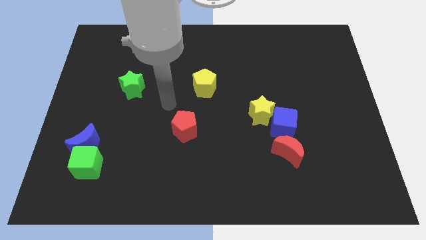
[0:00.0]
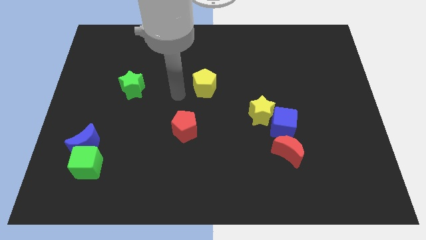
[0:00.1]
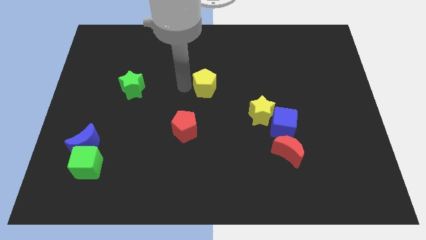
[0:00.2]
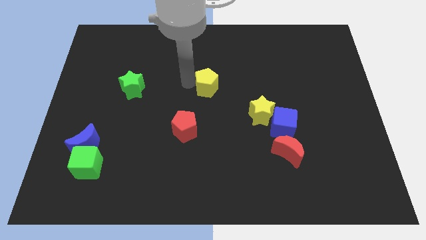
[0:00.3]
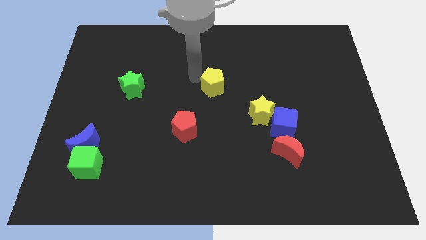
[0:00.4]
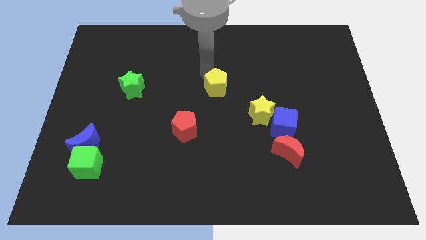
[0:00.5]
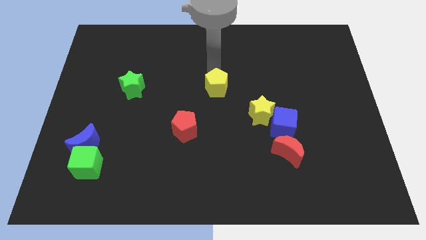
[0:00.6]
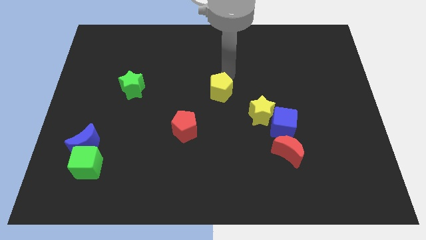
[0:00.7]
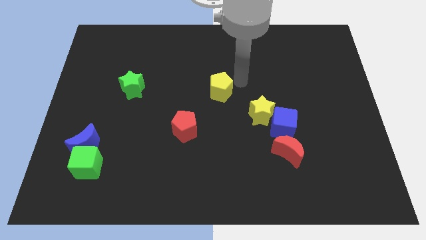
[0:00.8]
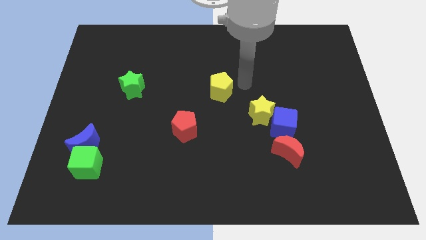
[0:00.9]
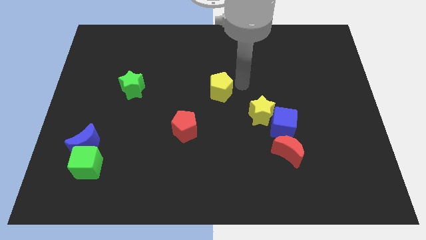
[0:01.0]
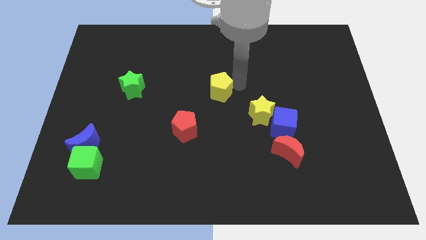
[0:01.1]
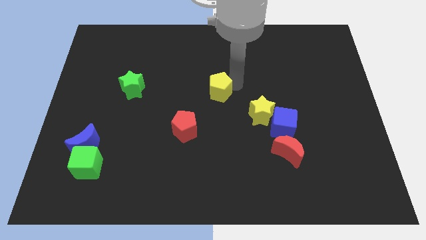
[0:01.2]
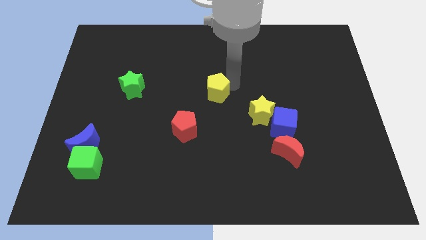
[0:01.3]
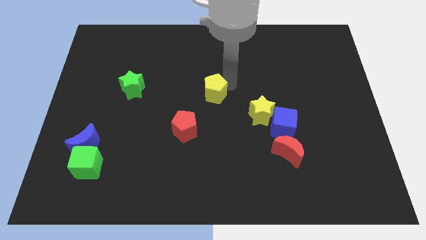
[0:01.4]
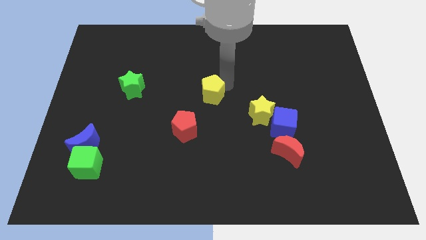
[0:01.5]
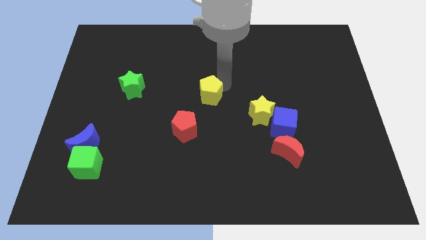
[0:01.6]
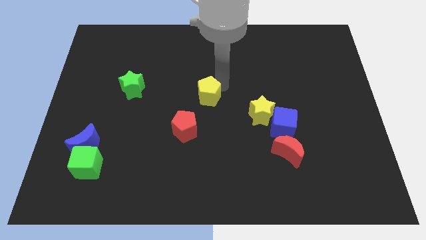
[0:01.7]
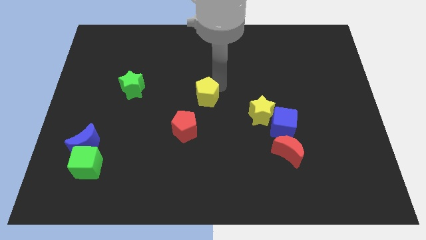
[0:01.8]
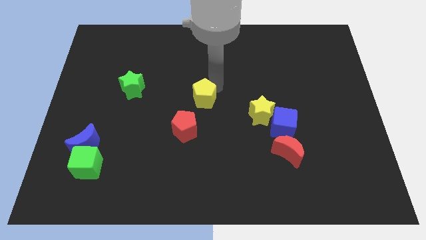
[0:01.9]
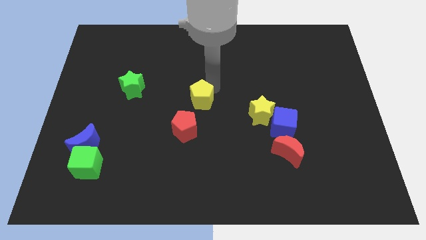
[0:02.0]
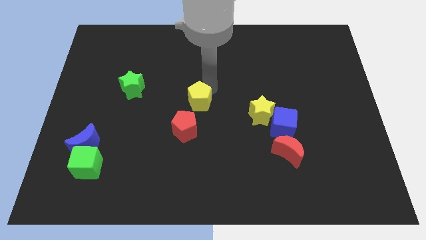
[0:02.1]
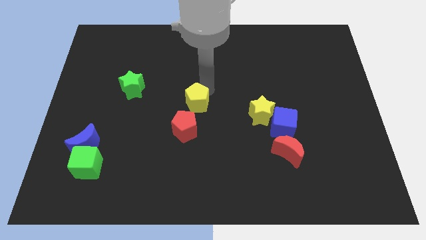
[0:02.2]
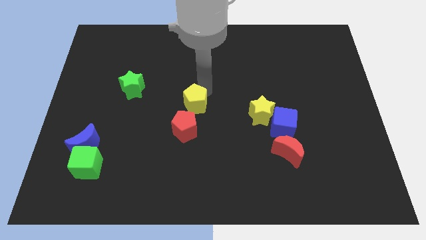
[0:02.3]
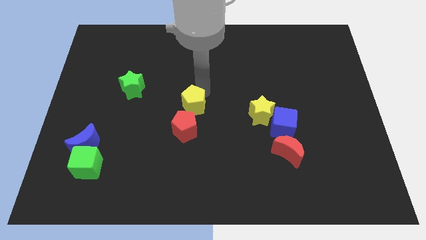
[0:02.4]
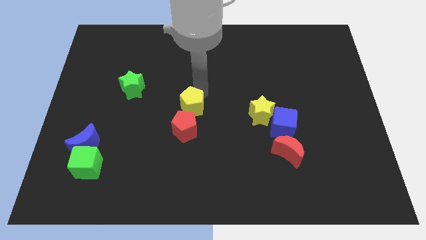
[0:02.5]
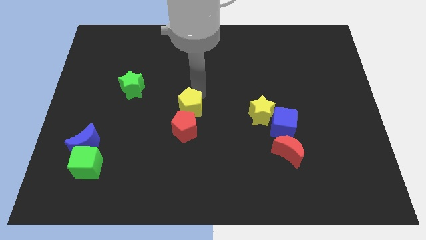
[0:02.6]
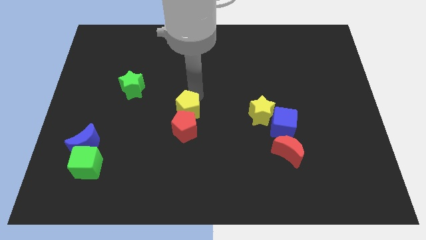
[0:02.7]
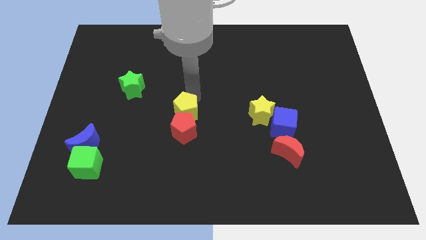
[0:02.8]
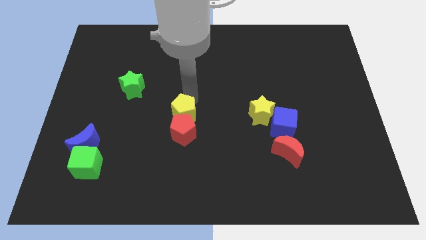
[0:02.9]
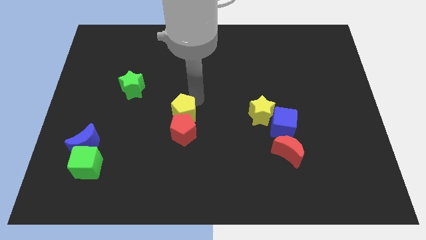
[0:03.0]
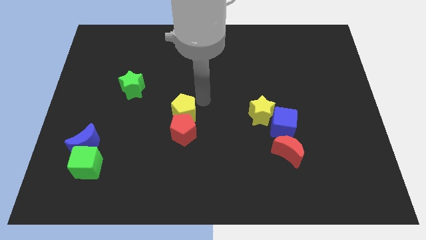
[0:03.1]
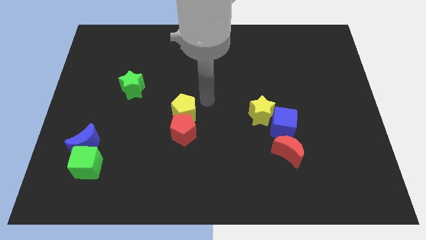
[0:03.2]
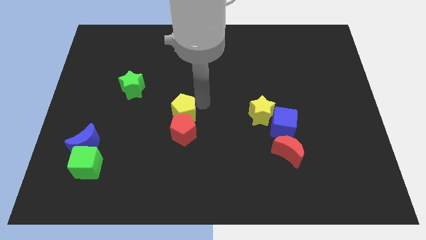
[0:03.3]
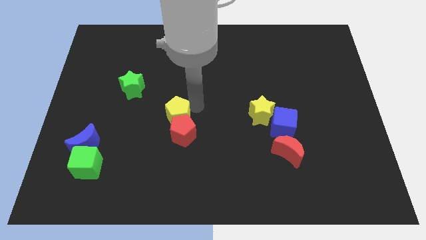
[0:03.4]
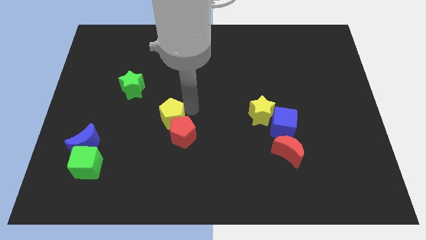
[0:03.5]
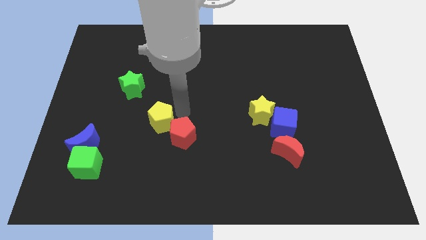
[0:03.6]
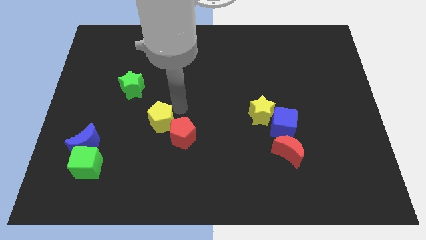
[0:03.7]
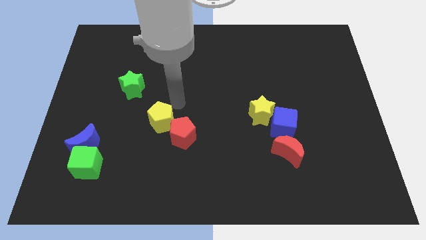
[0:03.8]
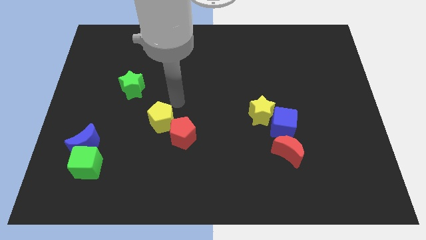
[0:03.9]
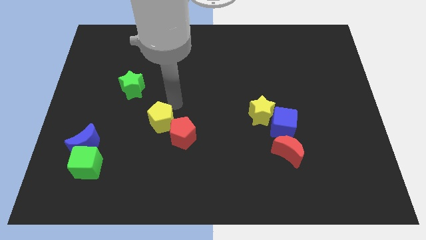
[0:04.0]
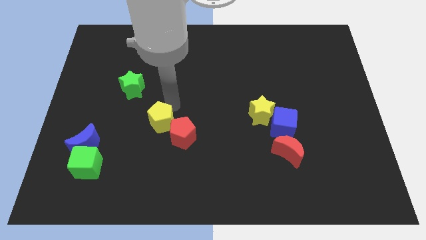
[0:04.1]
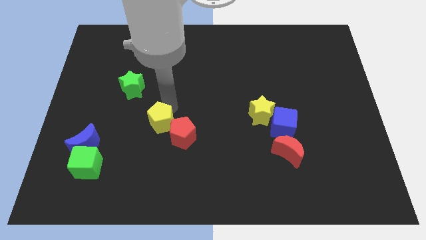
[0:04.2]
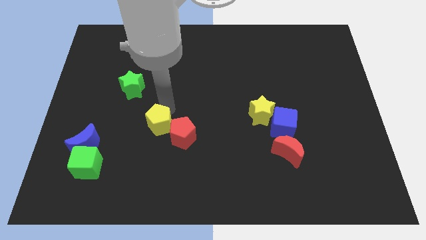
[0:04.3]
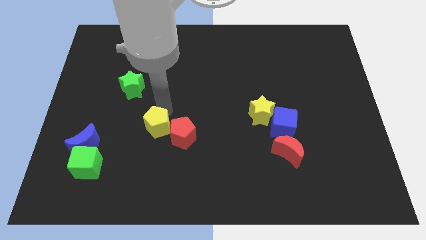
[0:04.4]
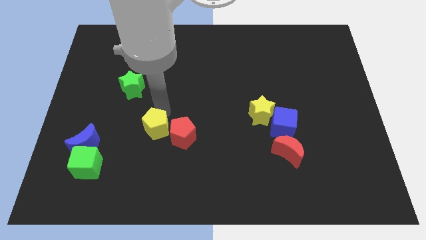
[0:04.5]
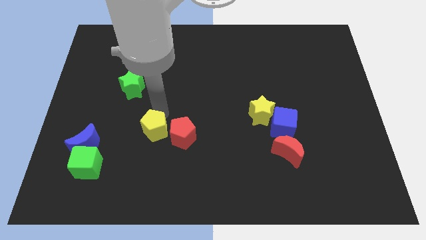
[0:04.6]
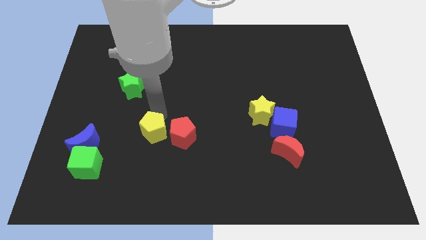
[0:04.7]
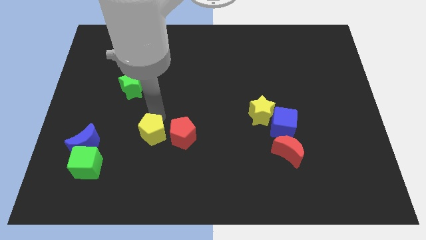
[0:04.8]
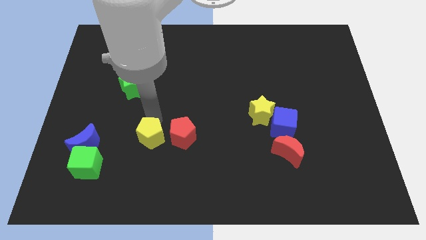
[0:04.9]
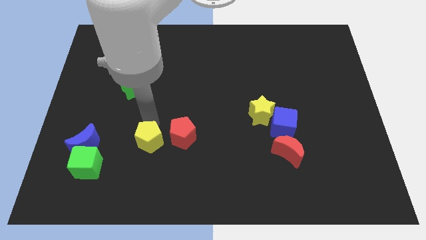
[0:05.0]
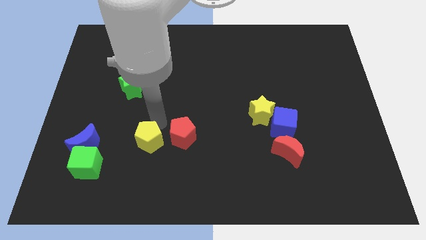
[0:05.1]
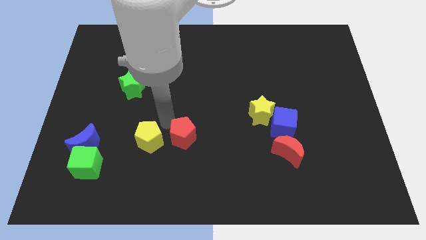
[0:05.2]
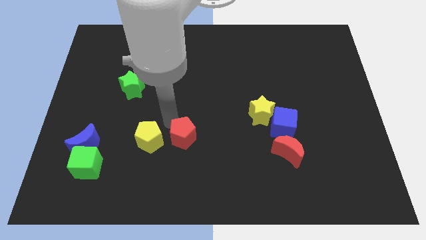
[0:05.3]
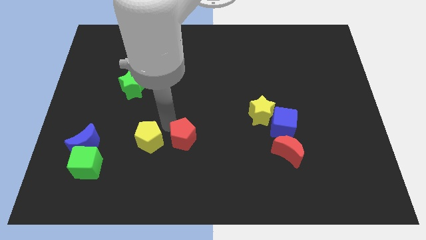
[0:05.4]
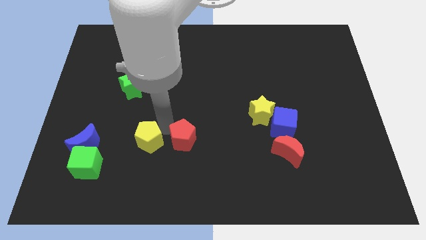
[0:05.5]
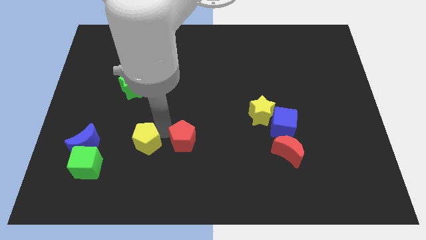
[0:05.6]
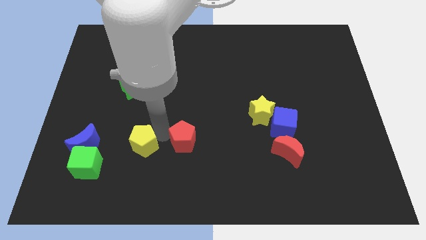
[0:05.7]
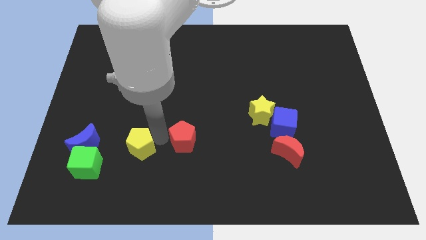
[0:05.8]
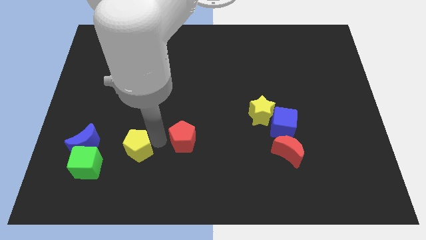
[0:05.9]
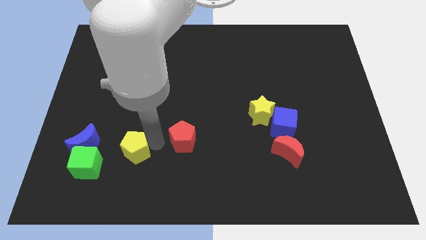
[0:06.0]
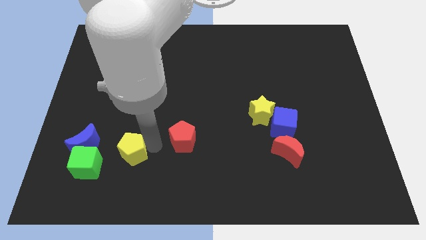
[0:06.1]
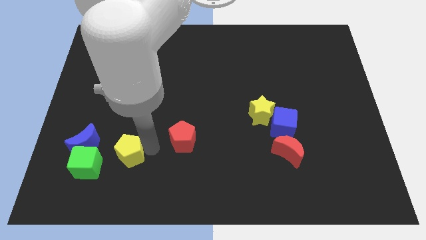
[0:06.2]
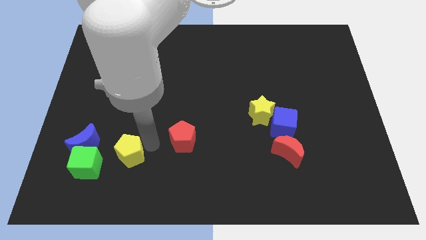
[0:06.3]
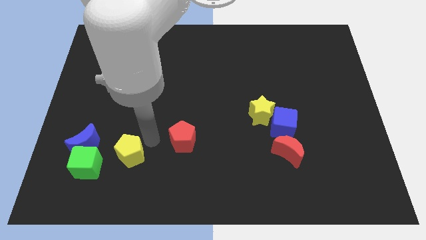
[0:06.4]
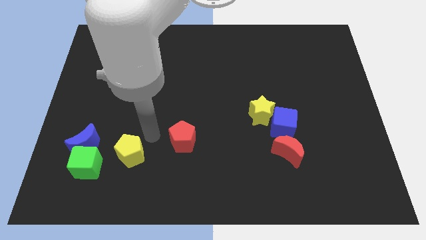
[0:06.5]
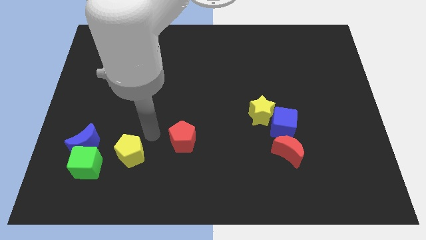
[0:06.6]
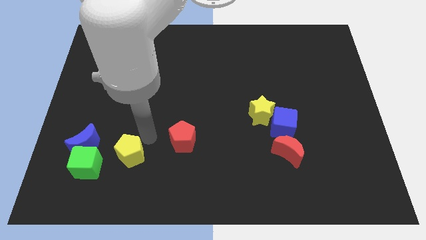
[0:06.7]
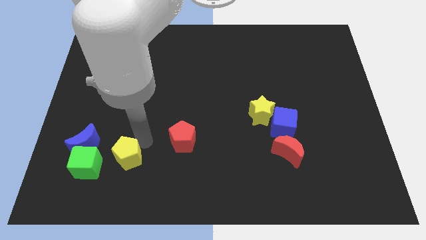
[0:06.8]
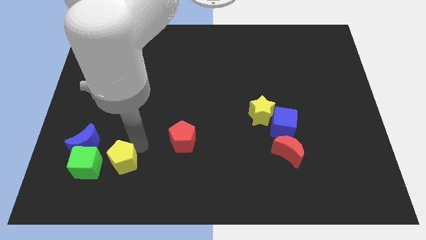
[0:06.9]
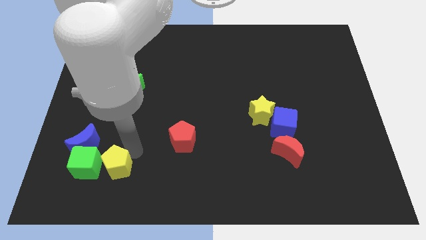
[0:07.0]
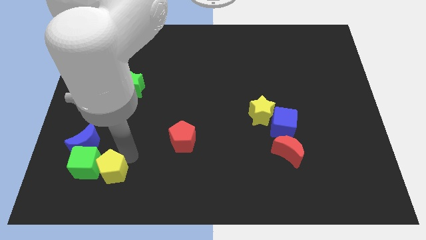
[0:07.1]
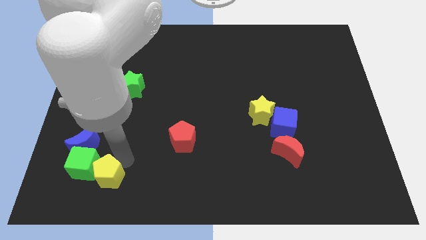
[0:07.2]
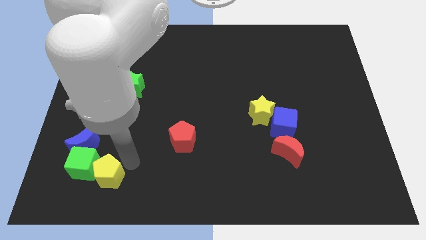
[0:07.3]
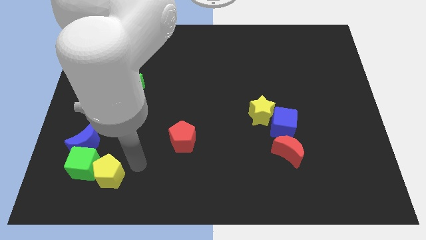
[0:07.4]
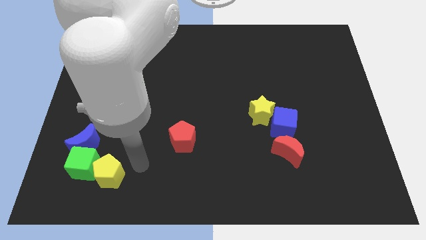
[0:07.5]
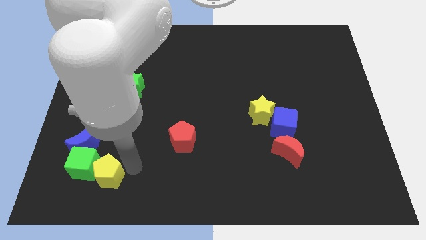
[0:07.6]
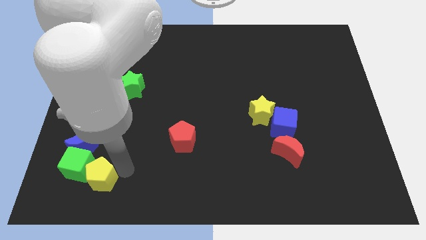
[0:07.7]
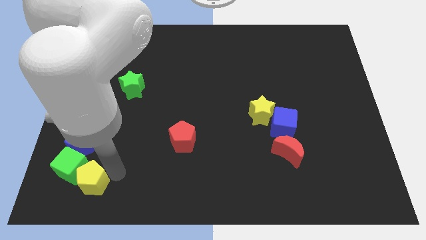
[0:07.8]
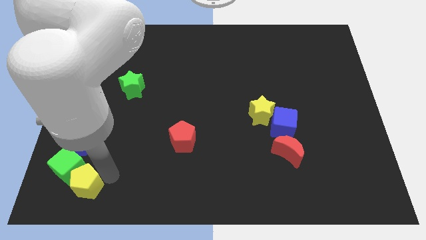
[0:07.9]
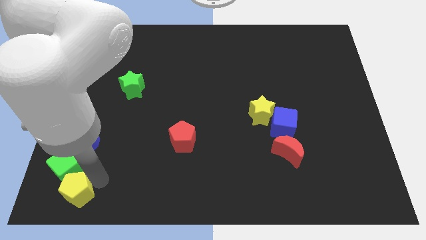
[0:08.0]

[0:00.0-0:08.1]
slide the yellow pentagon to the bottom left
